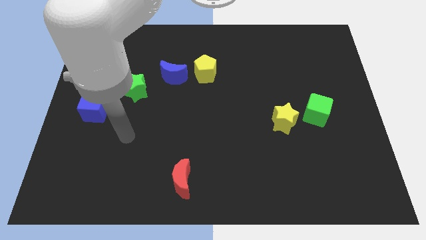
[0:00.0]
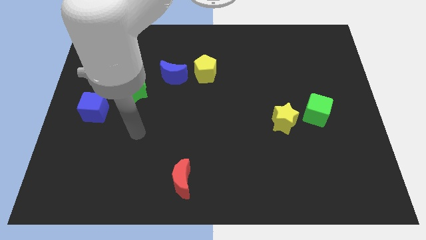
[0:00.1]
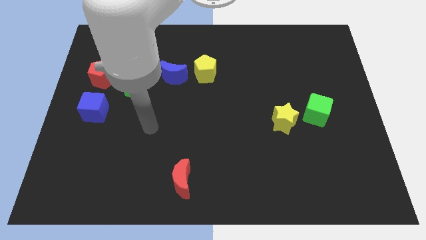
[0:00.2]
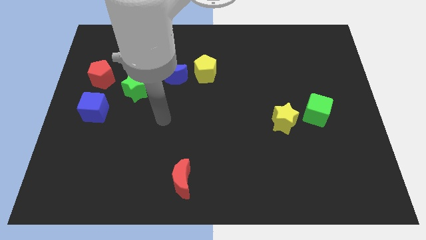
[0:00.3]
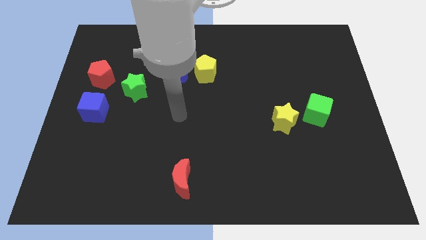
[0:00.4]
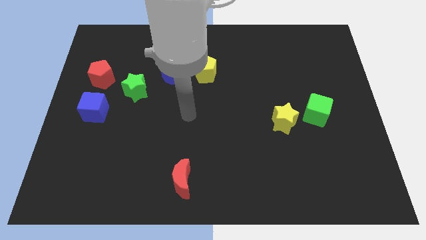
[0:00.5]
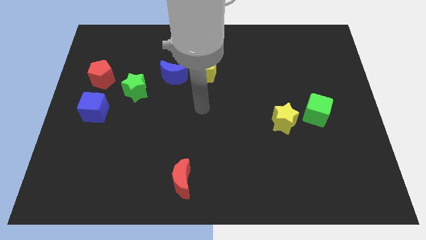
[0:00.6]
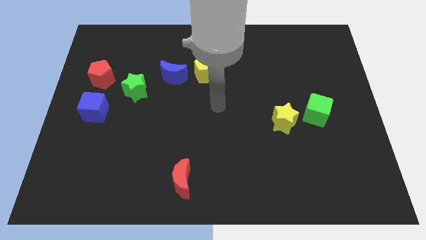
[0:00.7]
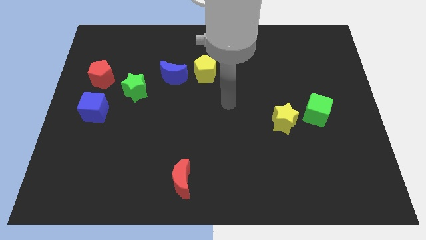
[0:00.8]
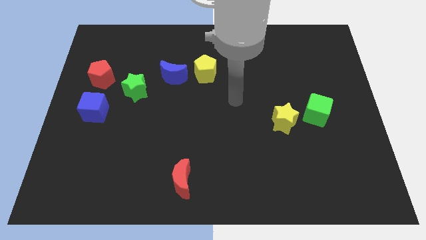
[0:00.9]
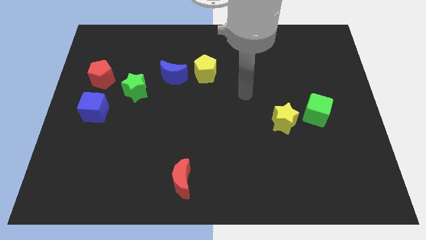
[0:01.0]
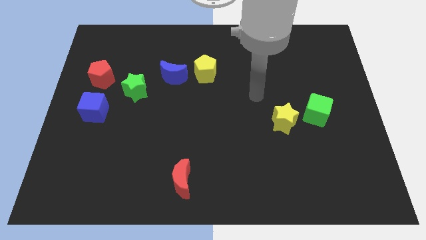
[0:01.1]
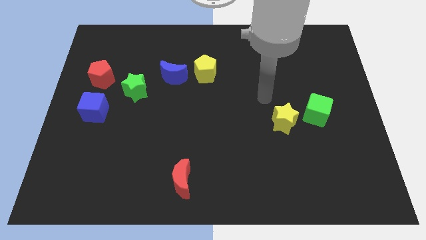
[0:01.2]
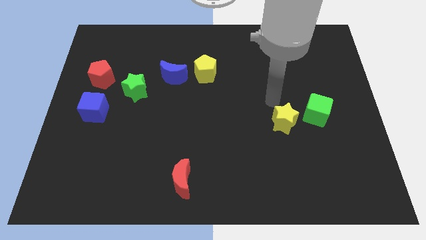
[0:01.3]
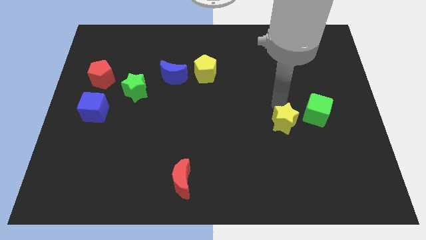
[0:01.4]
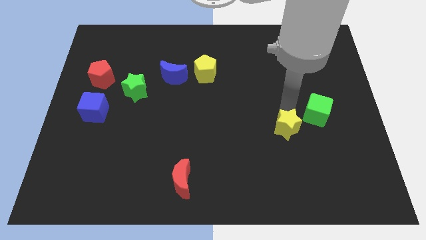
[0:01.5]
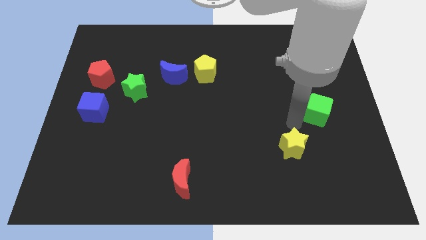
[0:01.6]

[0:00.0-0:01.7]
pull the green cube apart from the yellow star

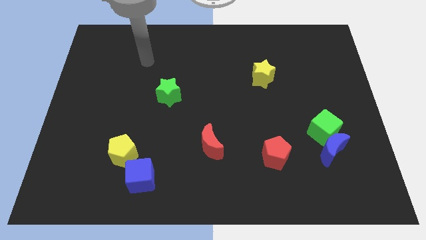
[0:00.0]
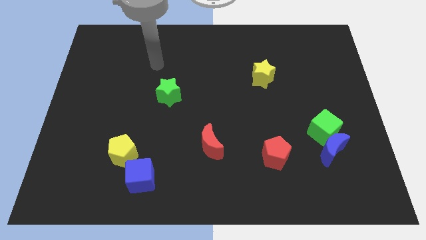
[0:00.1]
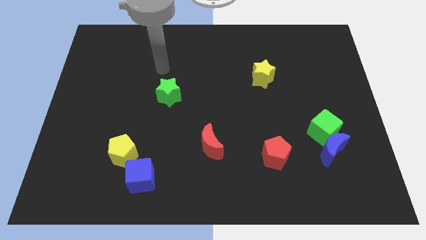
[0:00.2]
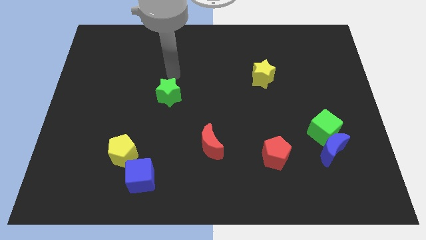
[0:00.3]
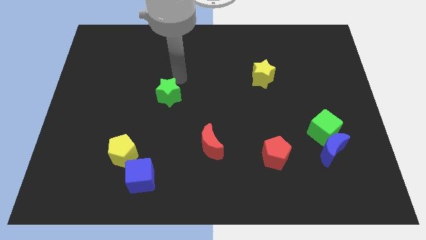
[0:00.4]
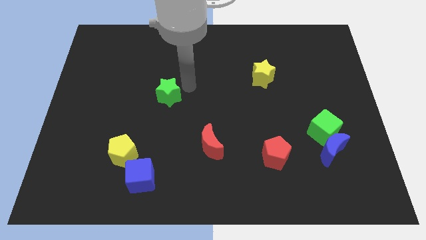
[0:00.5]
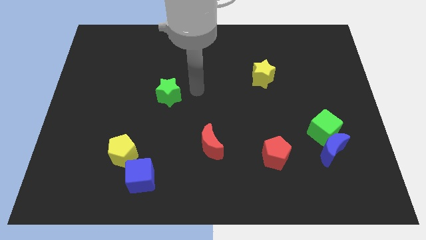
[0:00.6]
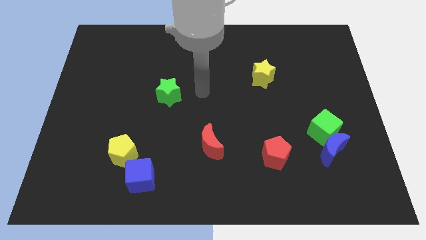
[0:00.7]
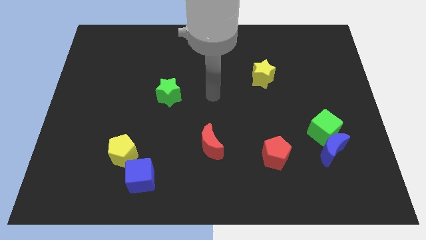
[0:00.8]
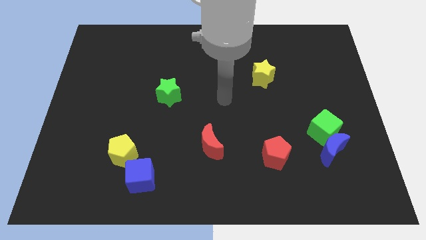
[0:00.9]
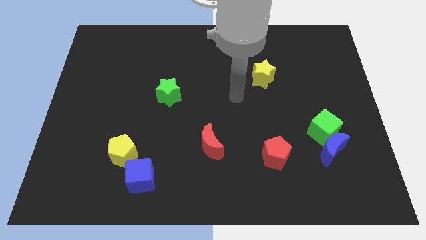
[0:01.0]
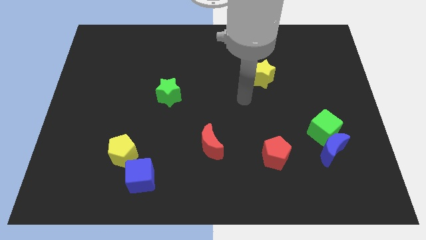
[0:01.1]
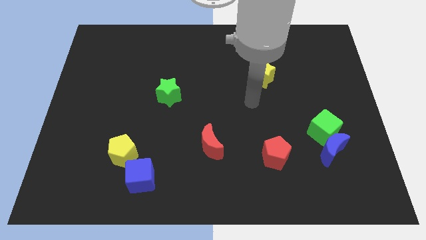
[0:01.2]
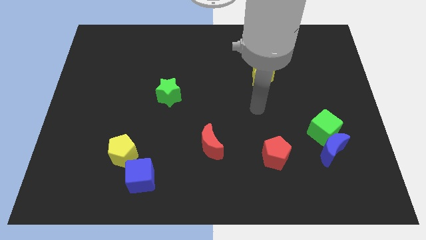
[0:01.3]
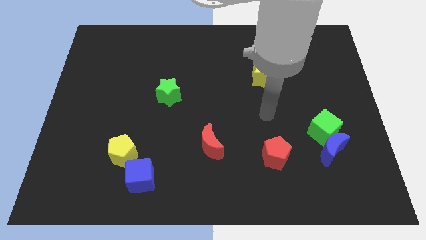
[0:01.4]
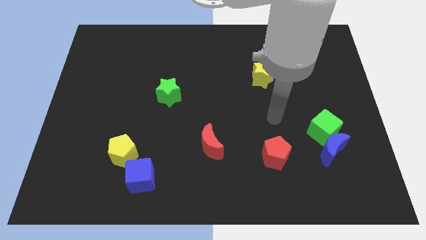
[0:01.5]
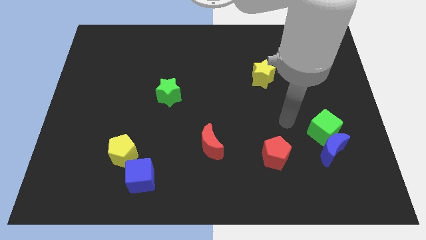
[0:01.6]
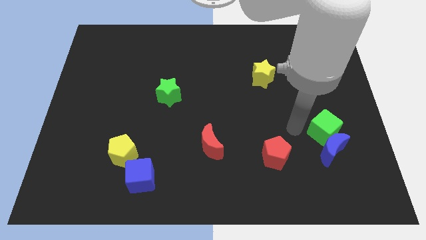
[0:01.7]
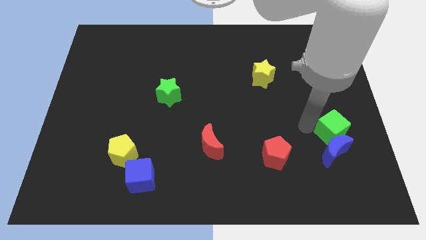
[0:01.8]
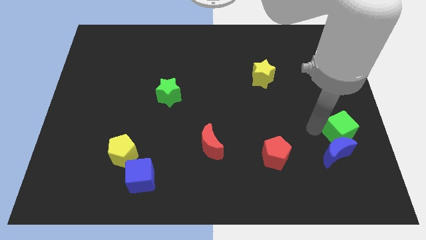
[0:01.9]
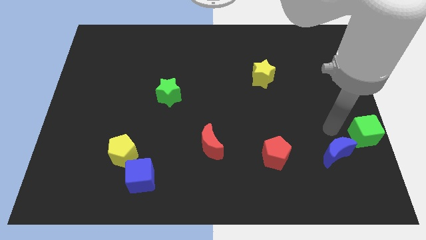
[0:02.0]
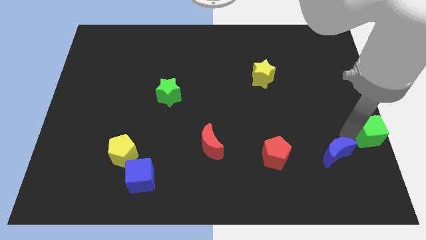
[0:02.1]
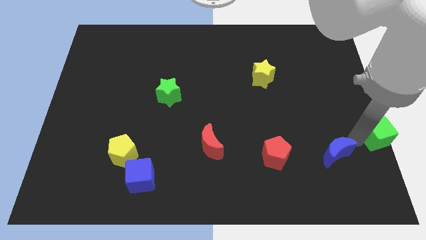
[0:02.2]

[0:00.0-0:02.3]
pull the blue moon apart from the green cube

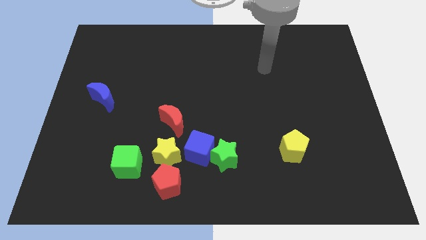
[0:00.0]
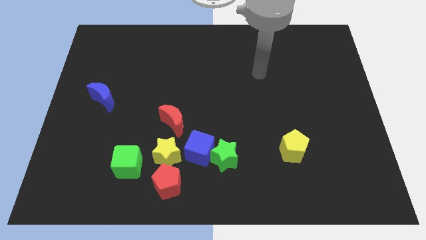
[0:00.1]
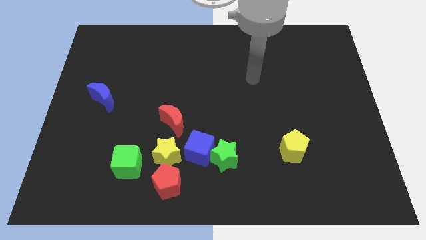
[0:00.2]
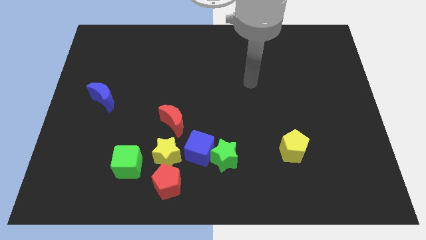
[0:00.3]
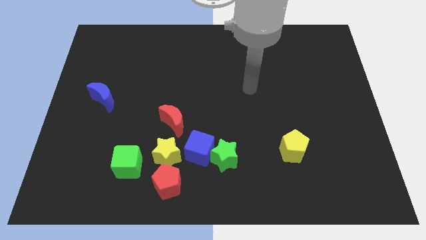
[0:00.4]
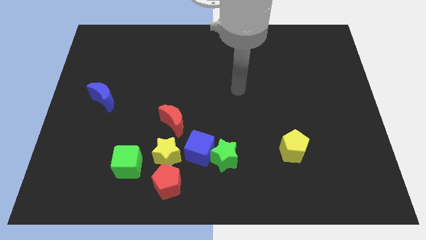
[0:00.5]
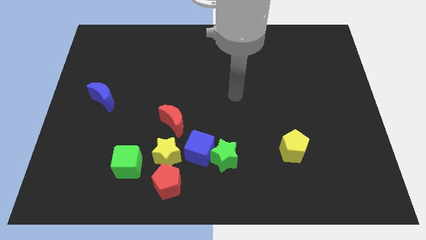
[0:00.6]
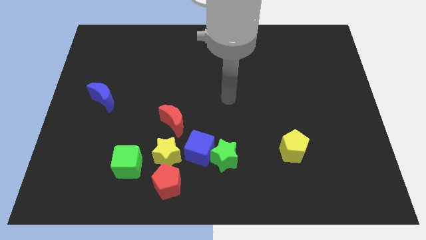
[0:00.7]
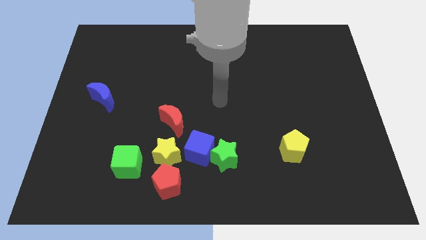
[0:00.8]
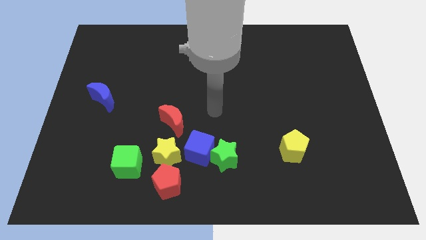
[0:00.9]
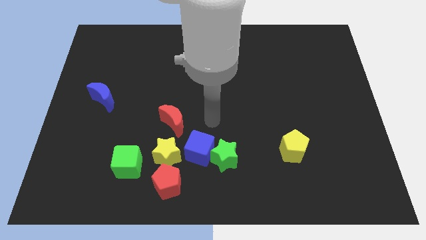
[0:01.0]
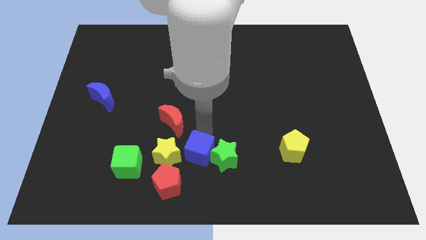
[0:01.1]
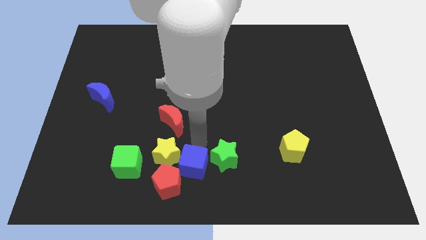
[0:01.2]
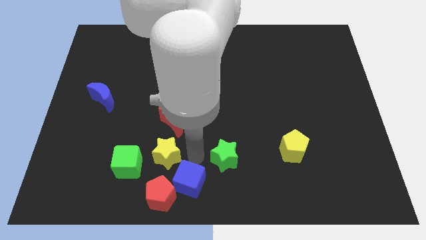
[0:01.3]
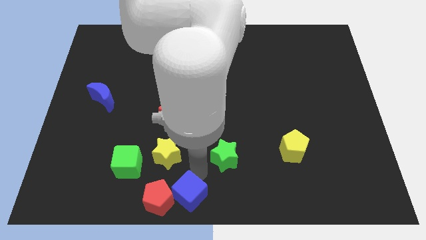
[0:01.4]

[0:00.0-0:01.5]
separate the green star from the blue cube

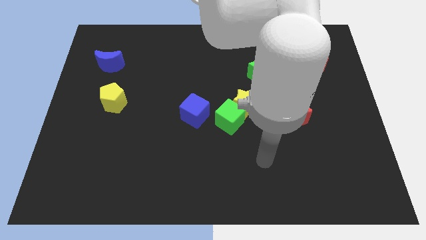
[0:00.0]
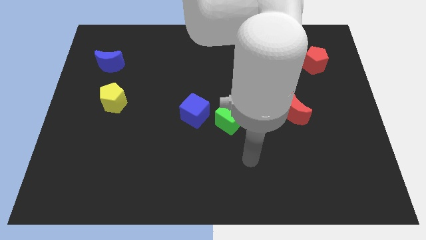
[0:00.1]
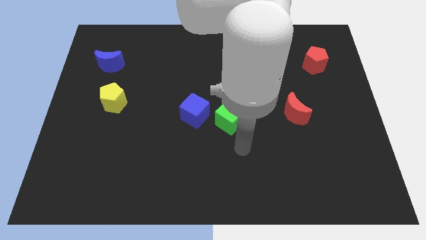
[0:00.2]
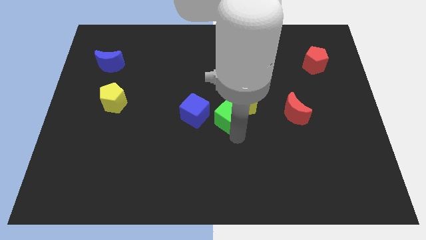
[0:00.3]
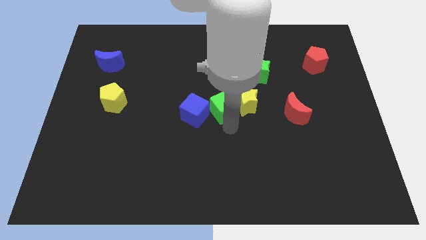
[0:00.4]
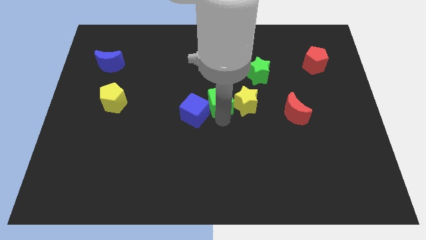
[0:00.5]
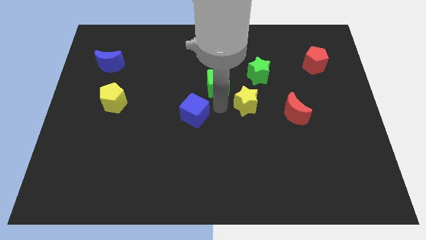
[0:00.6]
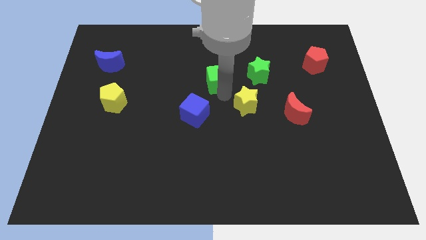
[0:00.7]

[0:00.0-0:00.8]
pull the yellow star apart from the green cube

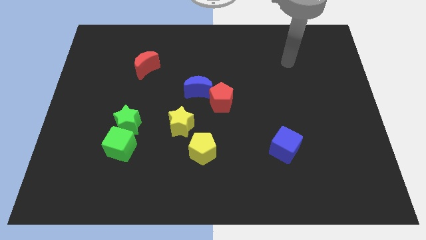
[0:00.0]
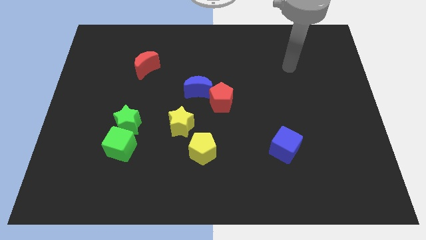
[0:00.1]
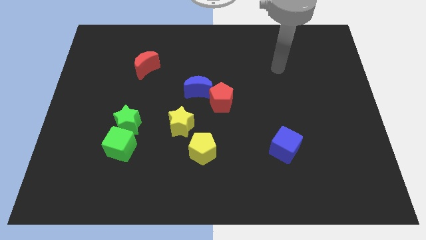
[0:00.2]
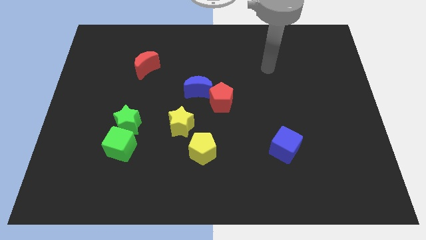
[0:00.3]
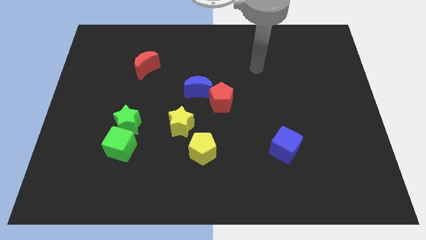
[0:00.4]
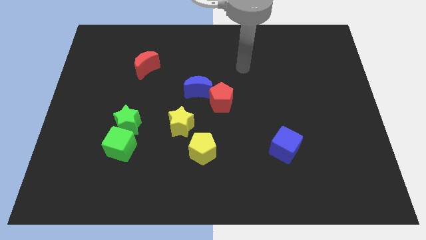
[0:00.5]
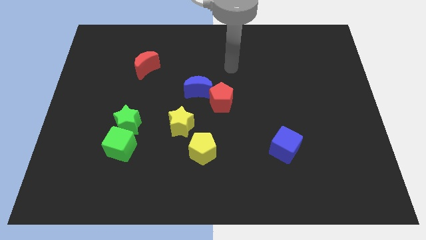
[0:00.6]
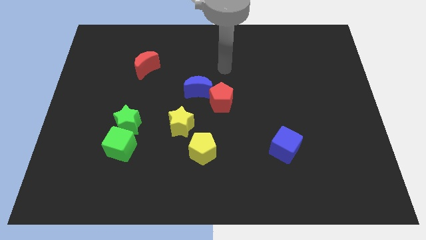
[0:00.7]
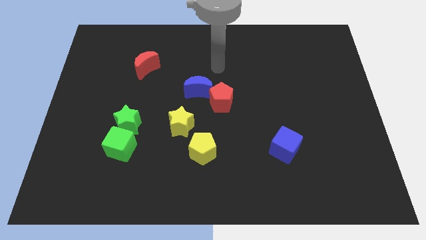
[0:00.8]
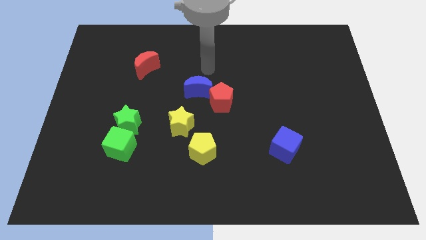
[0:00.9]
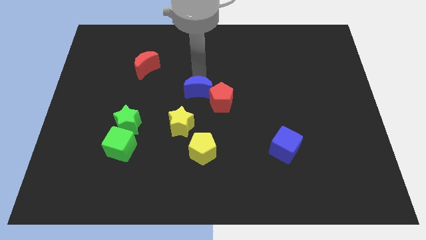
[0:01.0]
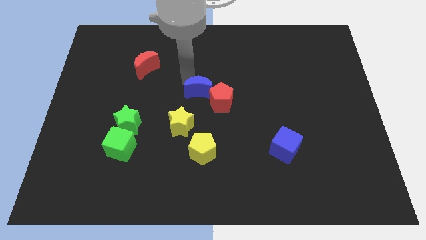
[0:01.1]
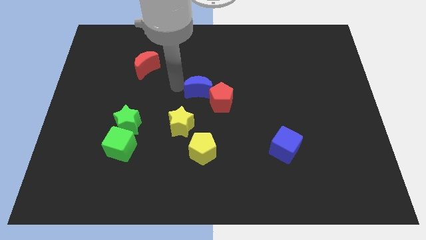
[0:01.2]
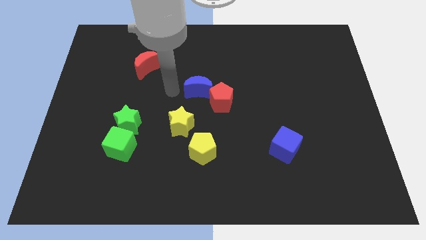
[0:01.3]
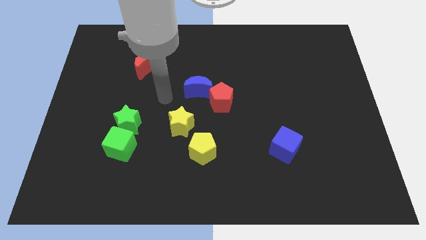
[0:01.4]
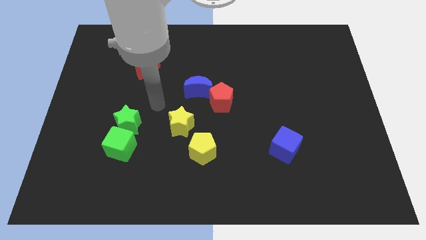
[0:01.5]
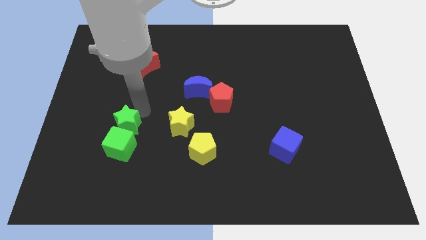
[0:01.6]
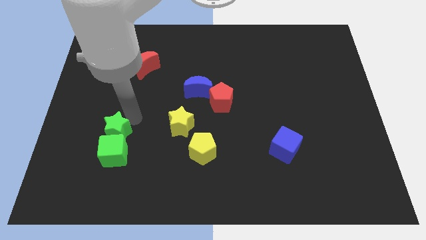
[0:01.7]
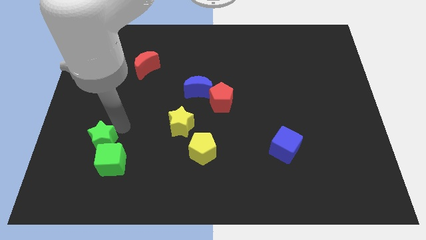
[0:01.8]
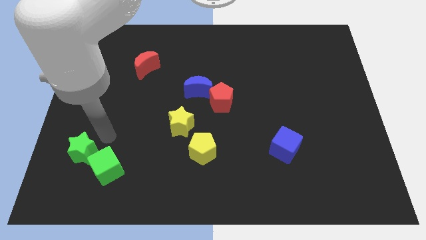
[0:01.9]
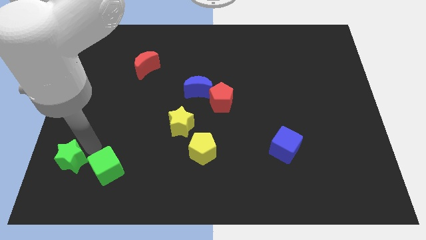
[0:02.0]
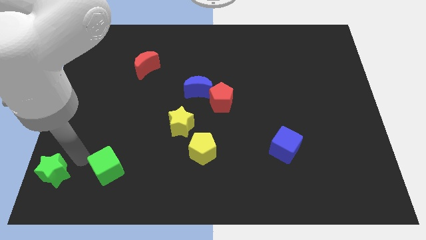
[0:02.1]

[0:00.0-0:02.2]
pull the green cube apart from the green star

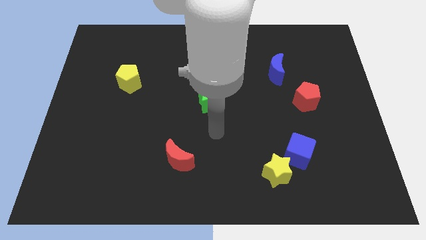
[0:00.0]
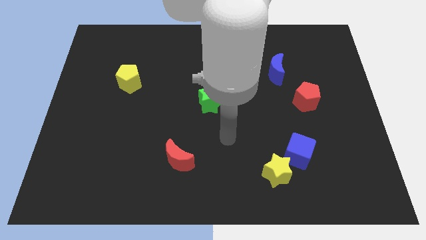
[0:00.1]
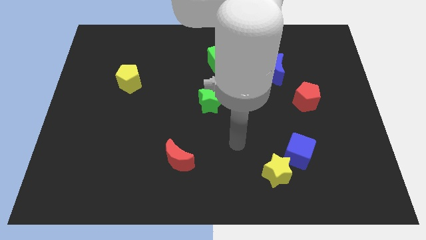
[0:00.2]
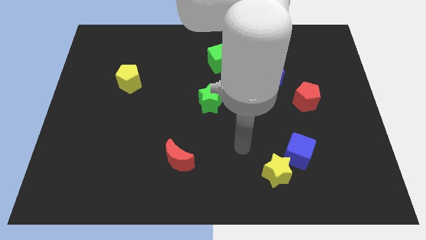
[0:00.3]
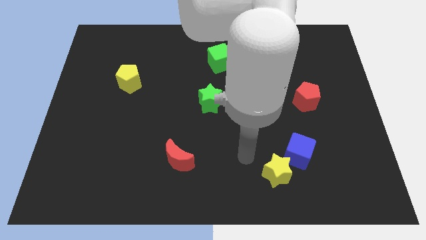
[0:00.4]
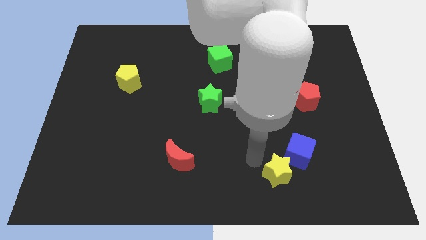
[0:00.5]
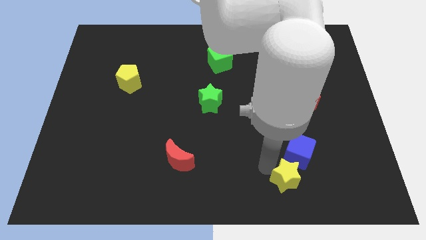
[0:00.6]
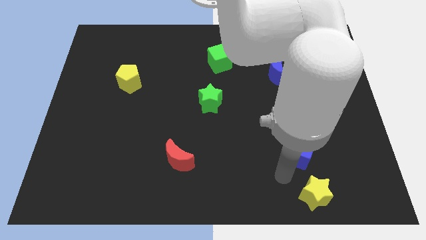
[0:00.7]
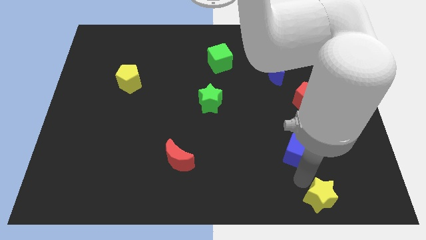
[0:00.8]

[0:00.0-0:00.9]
move the blue cube away from the yellow star
